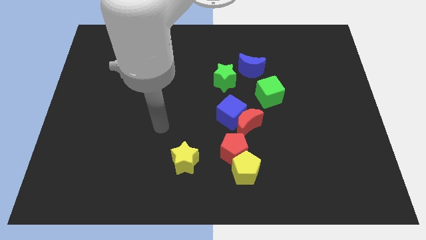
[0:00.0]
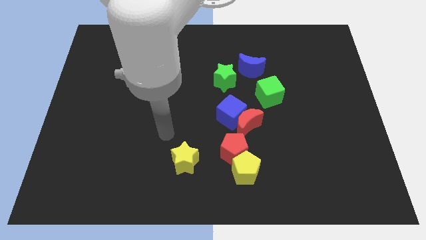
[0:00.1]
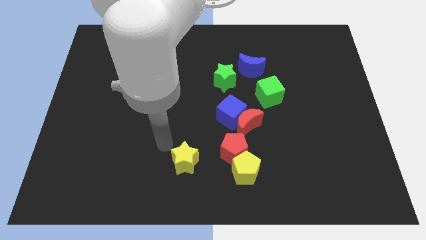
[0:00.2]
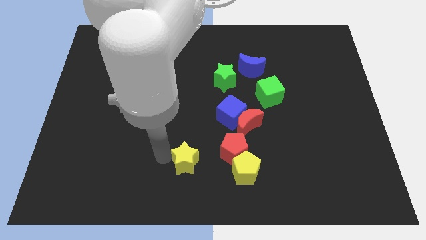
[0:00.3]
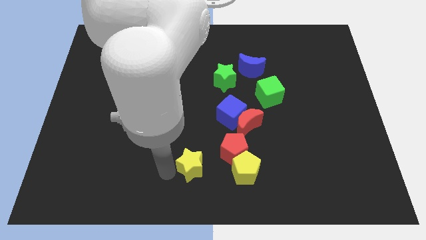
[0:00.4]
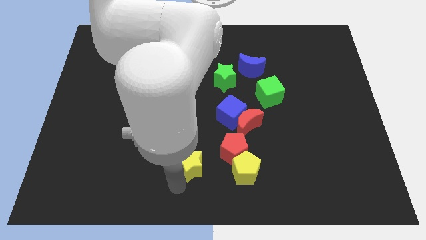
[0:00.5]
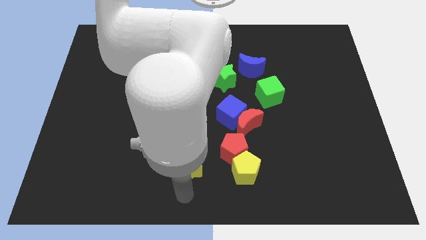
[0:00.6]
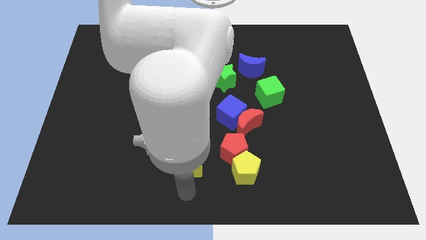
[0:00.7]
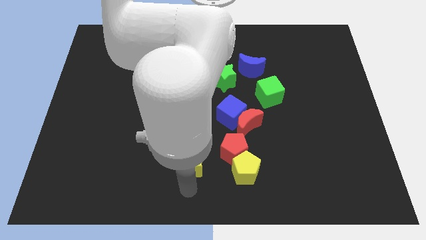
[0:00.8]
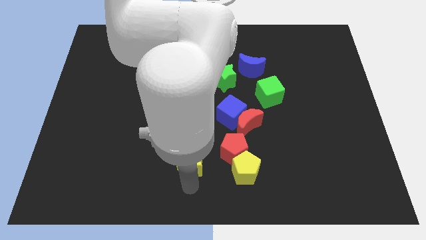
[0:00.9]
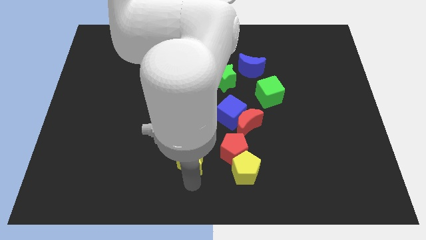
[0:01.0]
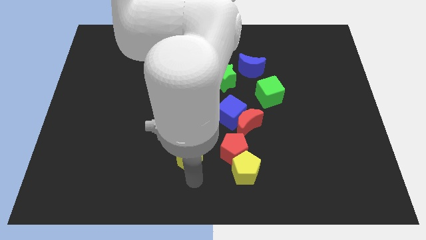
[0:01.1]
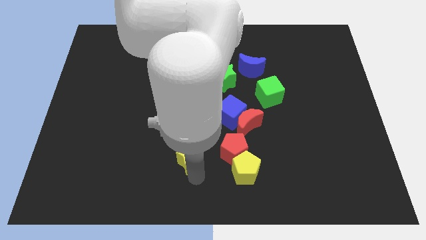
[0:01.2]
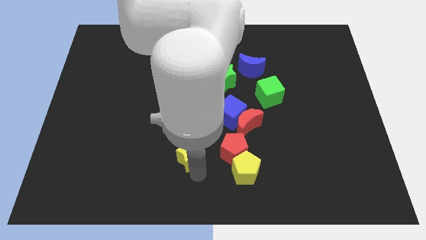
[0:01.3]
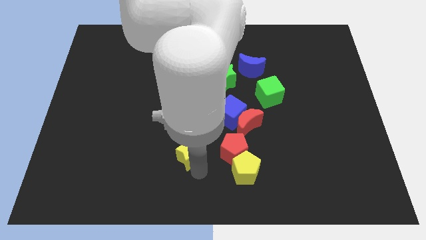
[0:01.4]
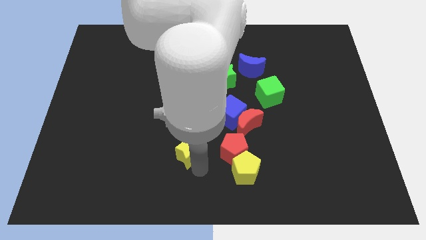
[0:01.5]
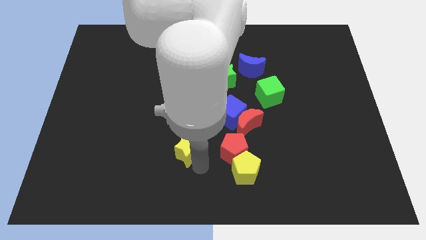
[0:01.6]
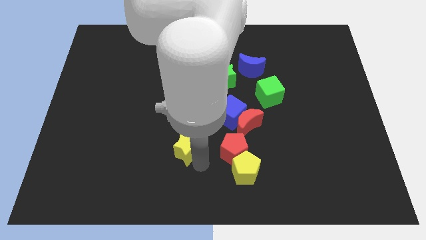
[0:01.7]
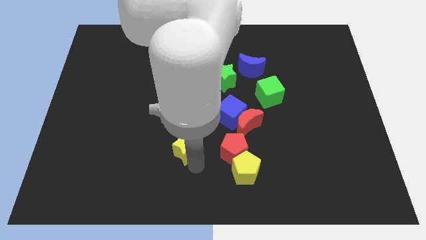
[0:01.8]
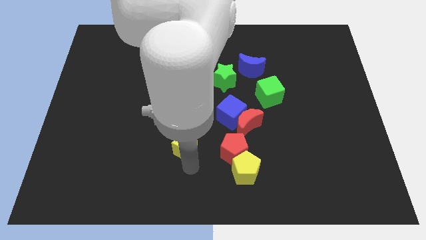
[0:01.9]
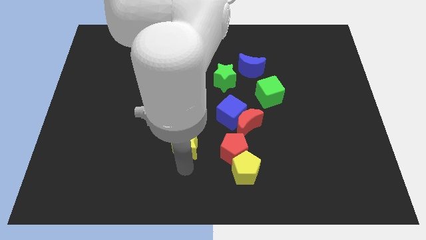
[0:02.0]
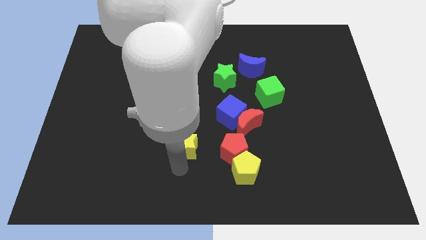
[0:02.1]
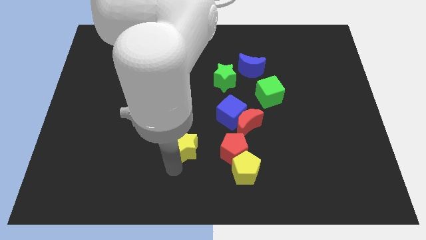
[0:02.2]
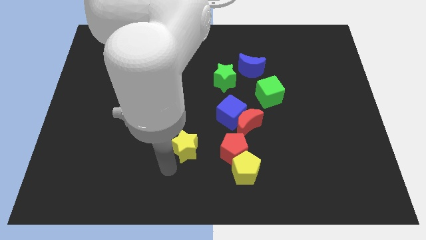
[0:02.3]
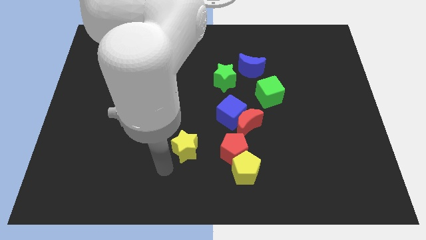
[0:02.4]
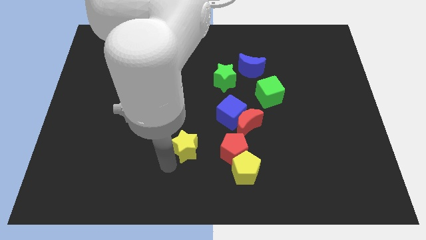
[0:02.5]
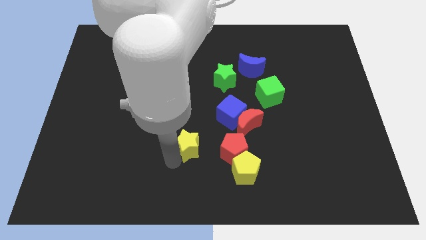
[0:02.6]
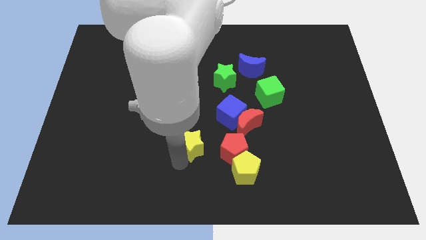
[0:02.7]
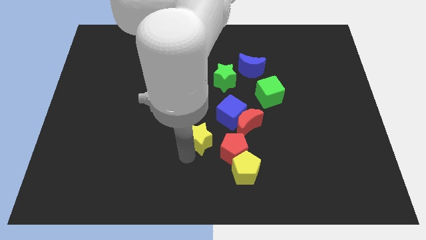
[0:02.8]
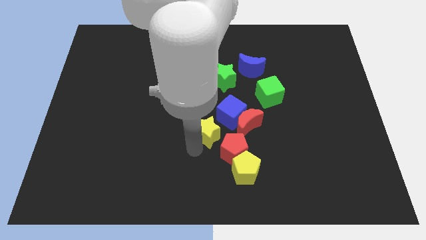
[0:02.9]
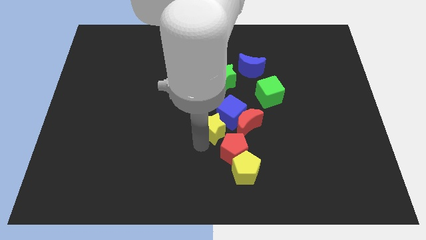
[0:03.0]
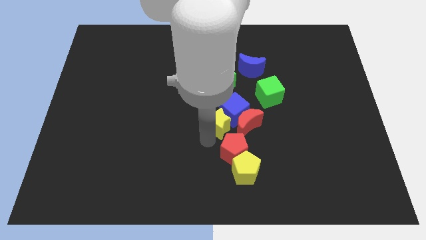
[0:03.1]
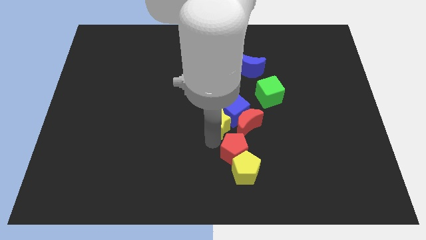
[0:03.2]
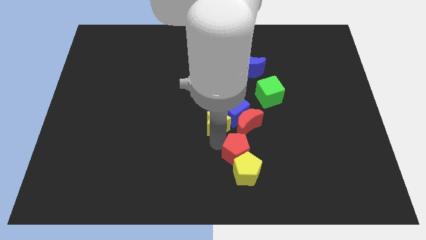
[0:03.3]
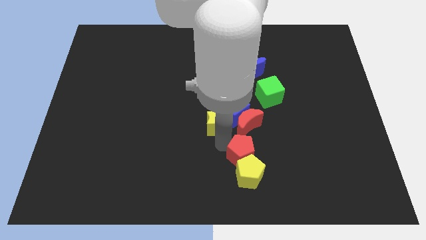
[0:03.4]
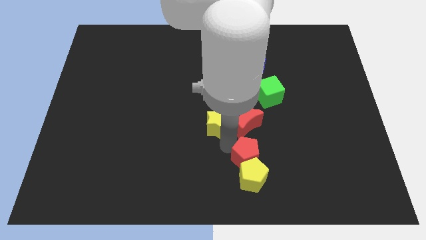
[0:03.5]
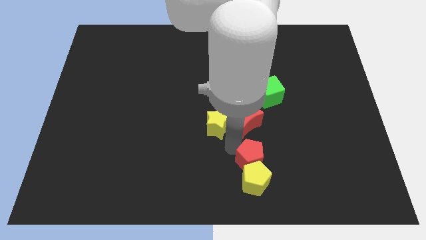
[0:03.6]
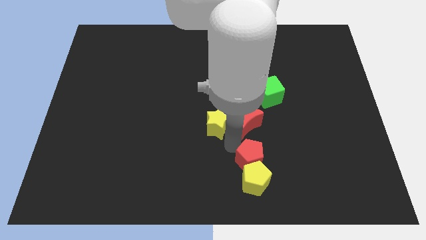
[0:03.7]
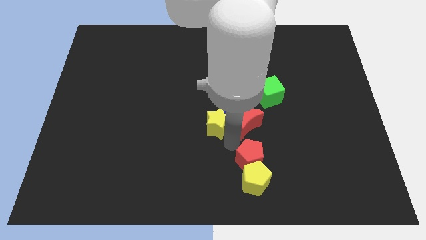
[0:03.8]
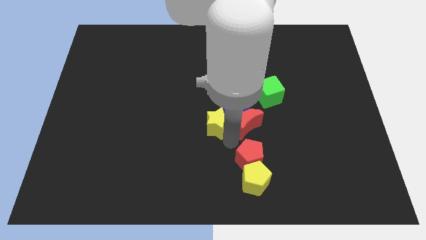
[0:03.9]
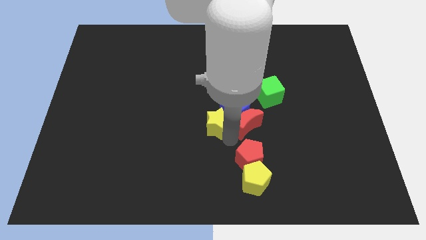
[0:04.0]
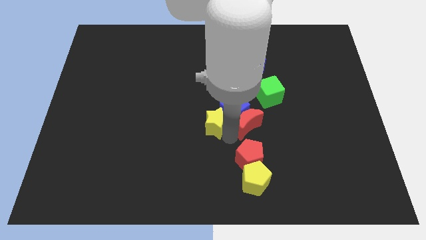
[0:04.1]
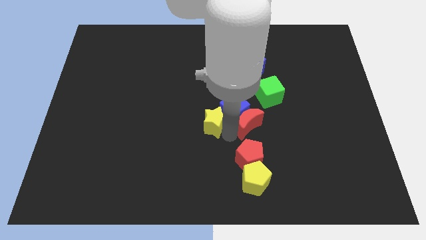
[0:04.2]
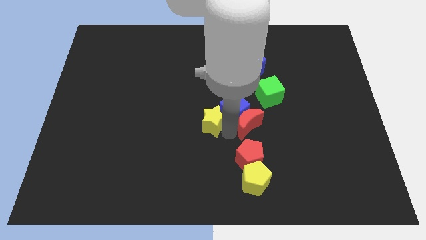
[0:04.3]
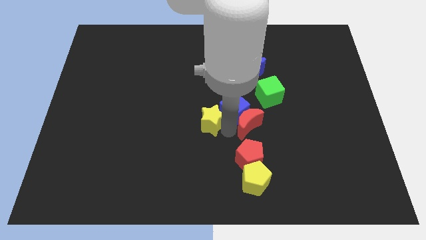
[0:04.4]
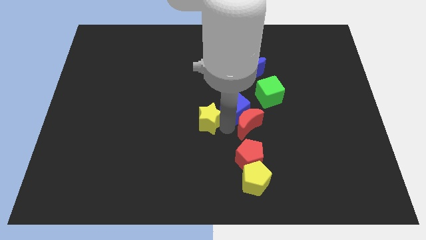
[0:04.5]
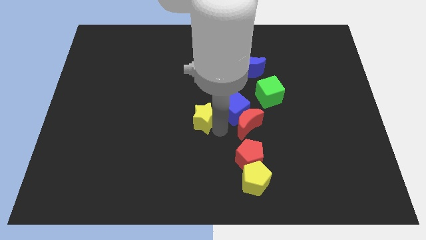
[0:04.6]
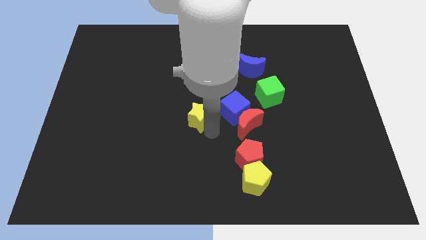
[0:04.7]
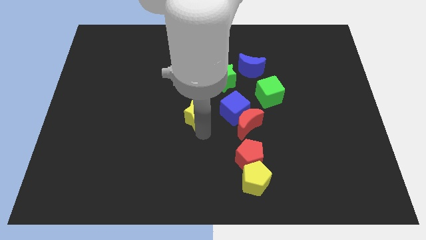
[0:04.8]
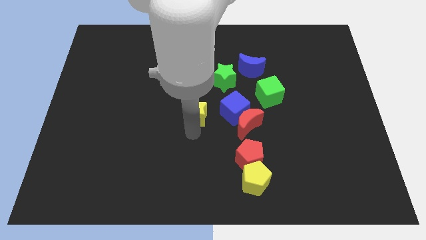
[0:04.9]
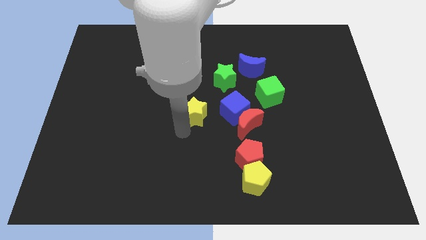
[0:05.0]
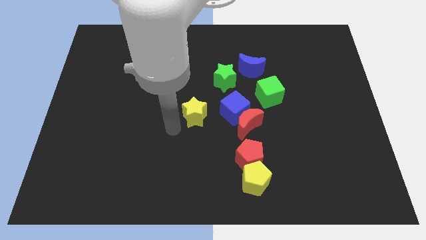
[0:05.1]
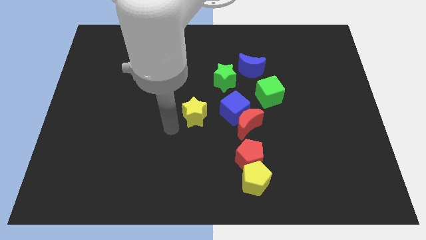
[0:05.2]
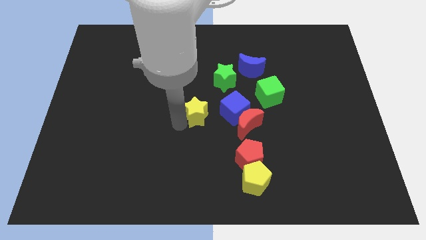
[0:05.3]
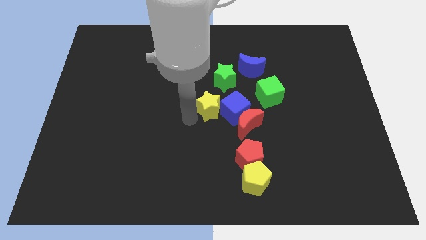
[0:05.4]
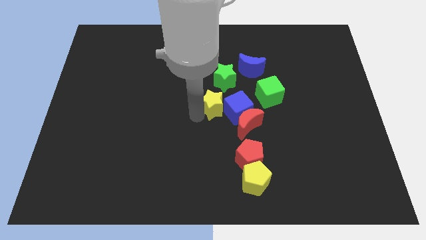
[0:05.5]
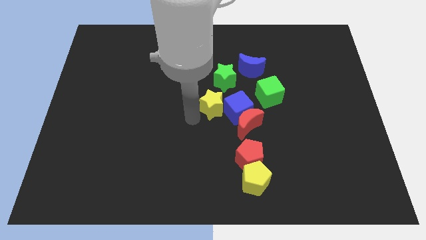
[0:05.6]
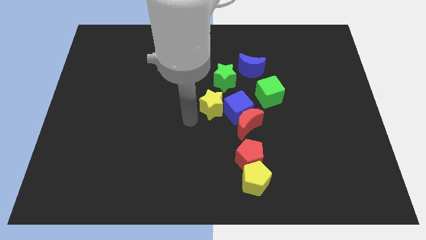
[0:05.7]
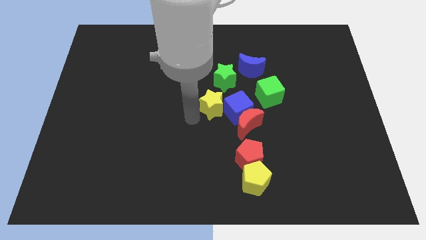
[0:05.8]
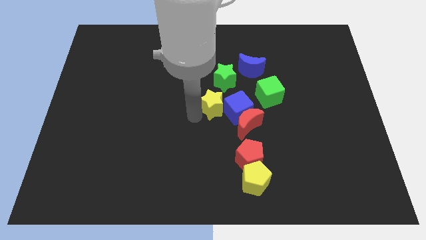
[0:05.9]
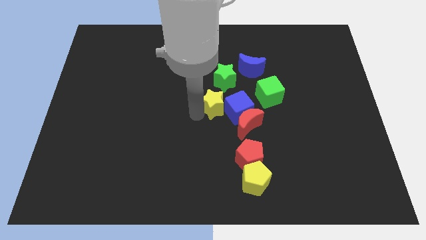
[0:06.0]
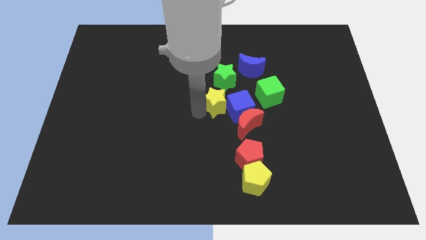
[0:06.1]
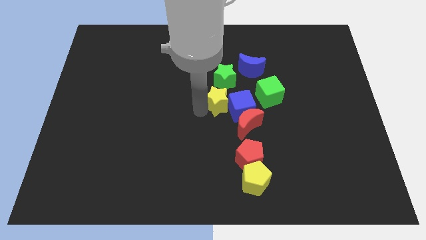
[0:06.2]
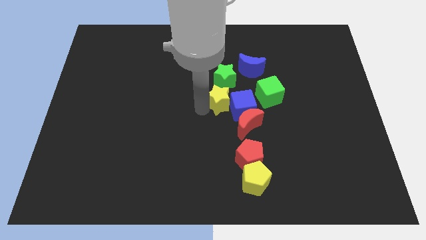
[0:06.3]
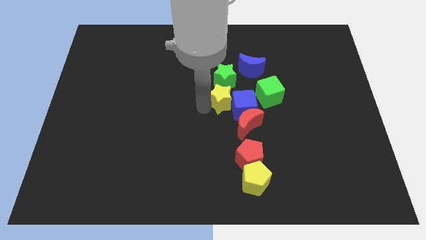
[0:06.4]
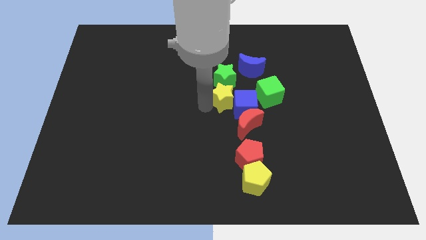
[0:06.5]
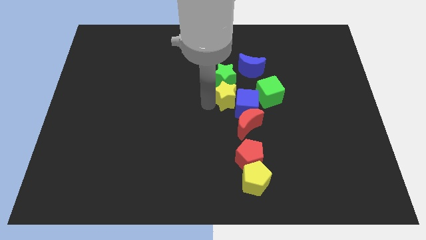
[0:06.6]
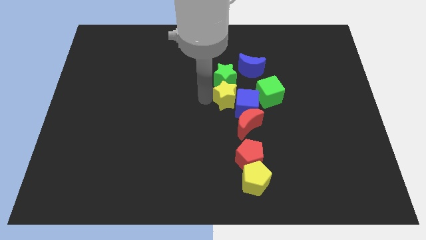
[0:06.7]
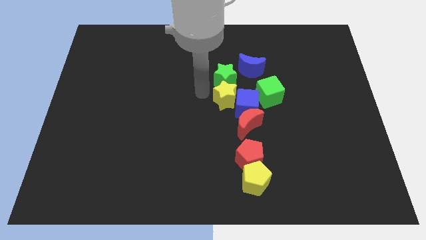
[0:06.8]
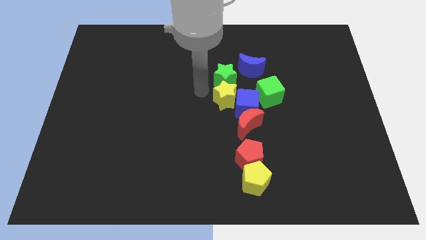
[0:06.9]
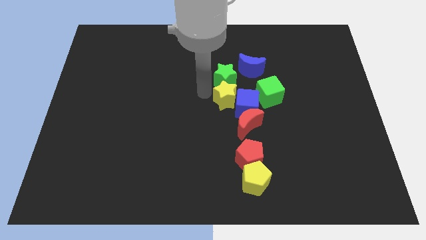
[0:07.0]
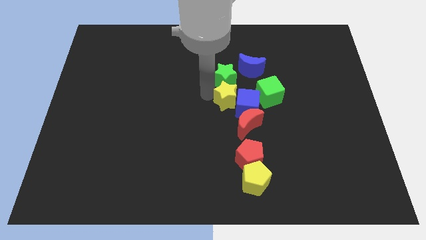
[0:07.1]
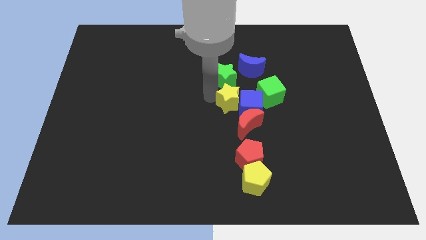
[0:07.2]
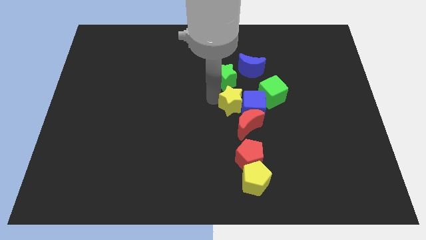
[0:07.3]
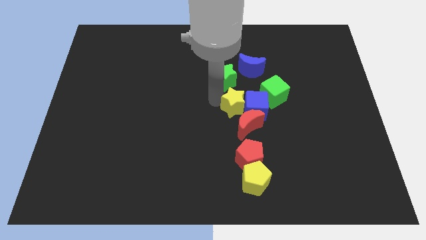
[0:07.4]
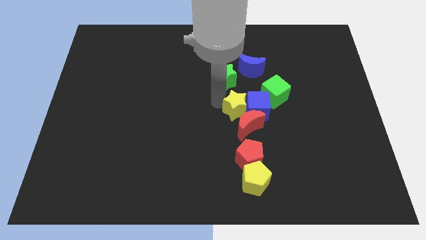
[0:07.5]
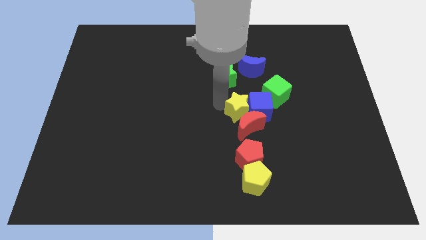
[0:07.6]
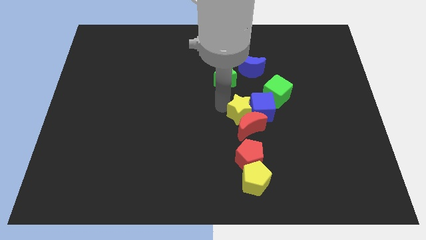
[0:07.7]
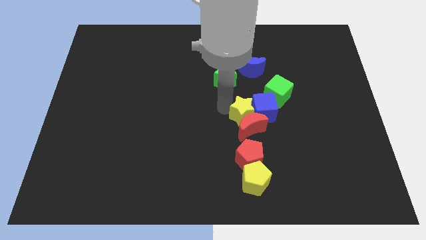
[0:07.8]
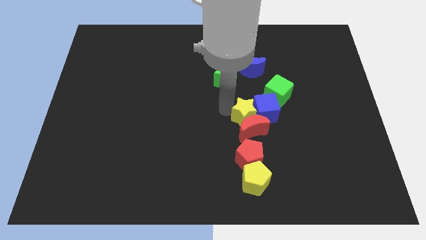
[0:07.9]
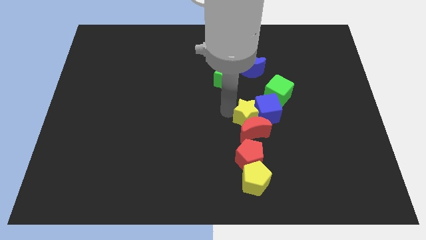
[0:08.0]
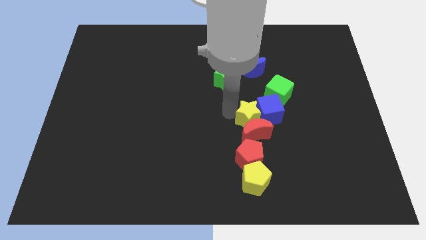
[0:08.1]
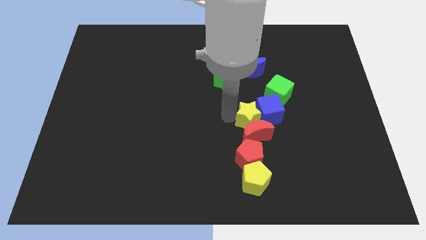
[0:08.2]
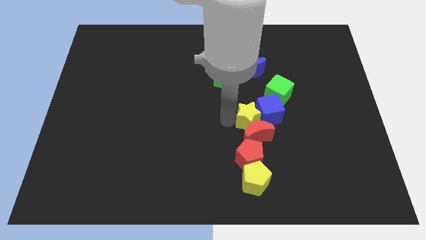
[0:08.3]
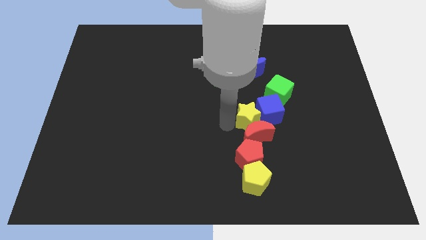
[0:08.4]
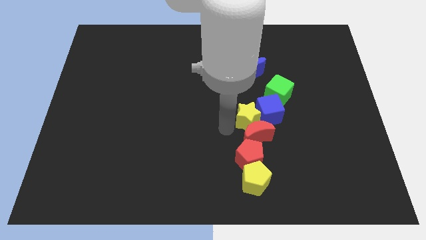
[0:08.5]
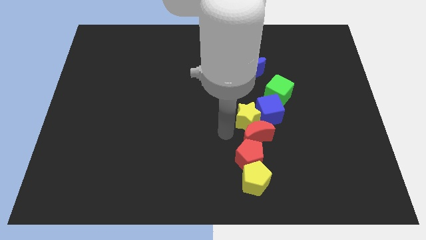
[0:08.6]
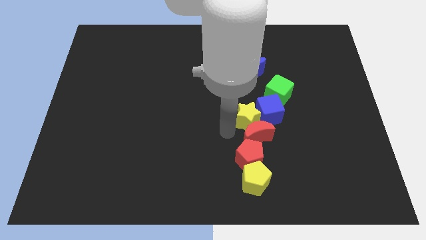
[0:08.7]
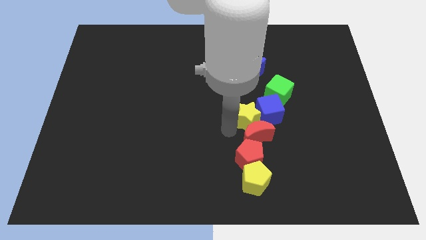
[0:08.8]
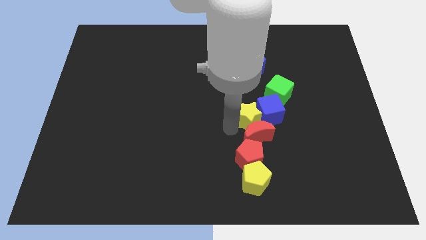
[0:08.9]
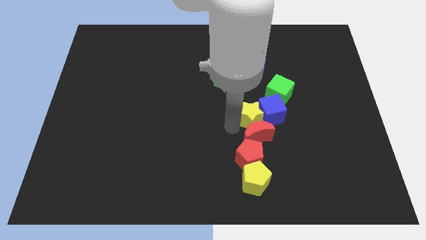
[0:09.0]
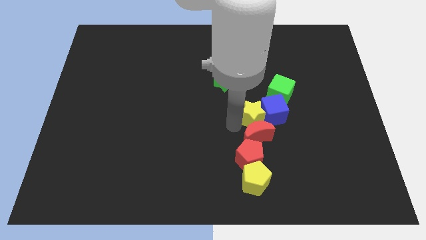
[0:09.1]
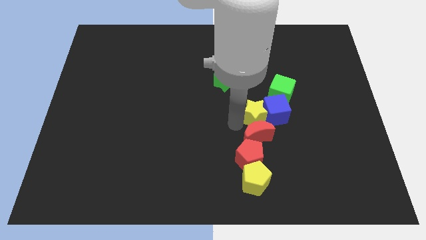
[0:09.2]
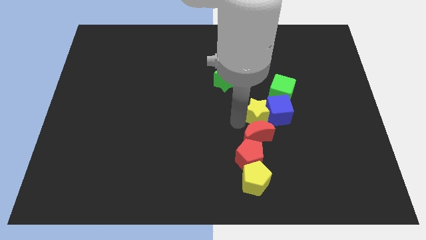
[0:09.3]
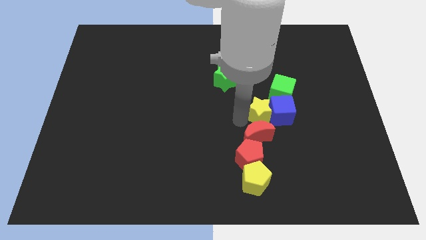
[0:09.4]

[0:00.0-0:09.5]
push the yellow star upwards and to the right diagonally
